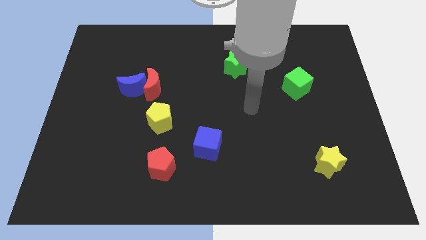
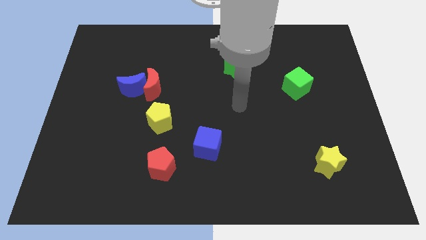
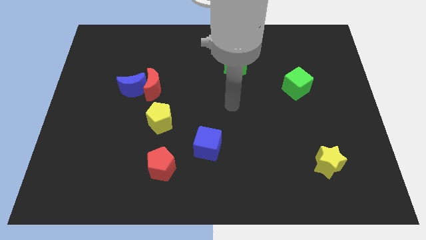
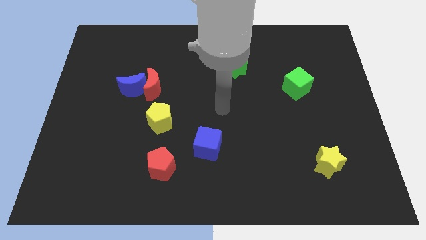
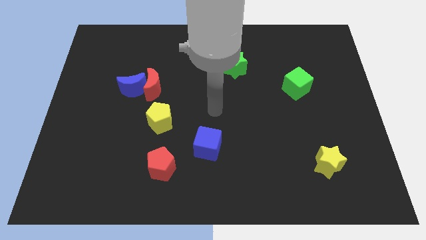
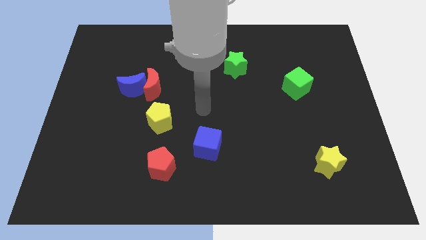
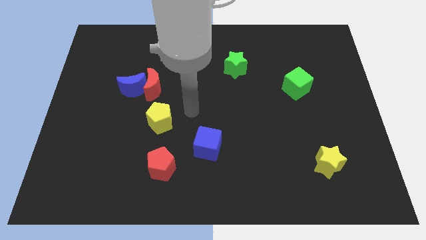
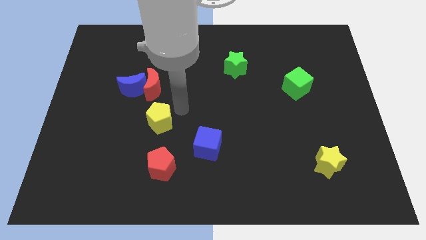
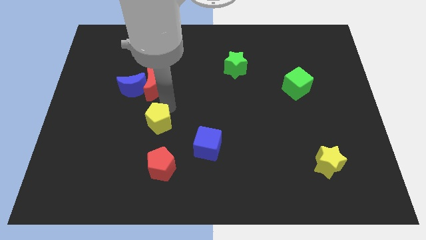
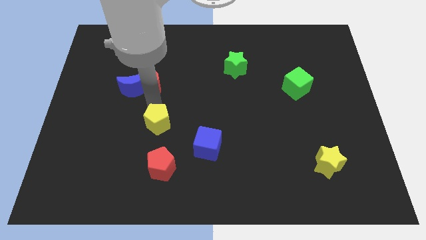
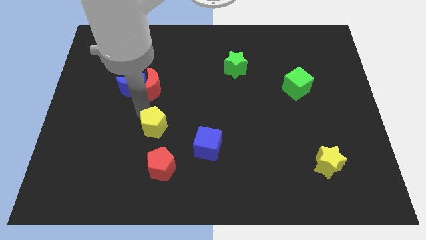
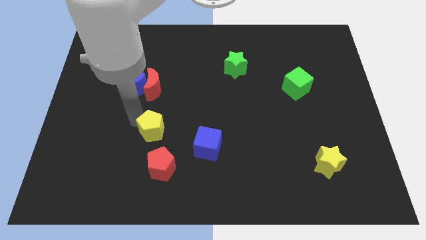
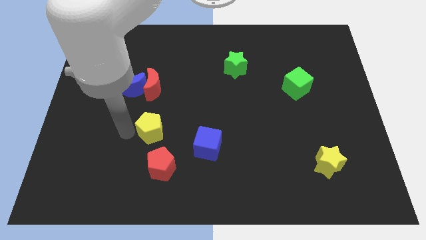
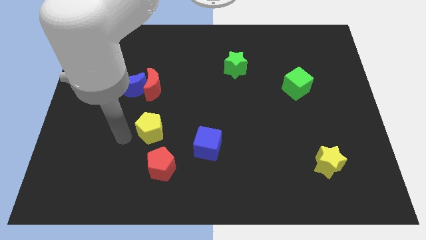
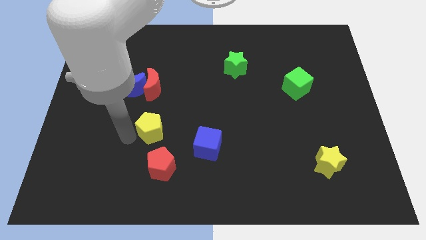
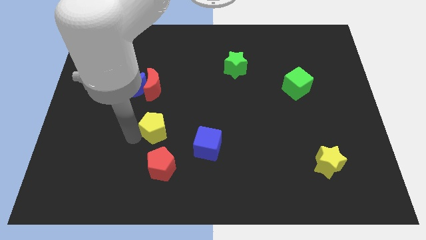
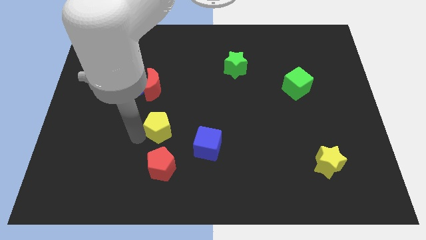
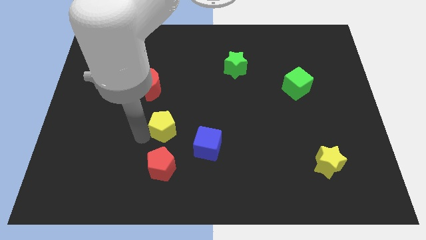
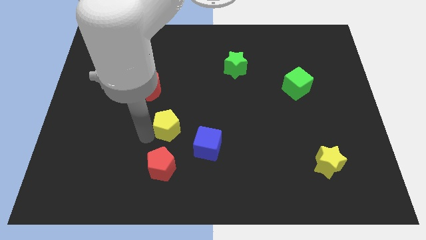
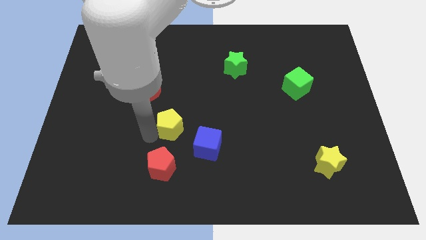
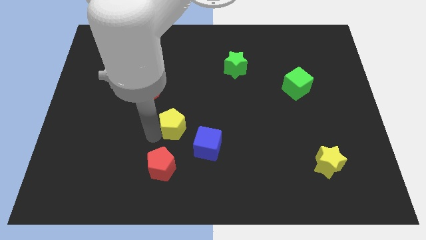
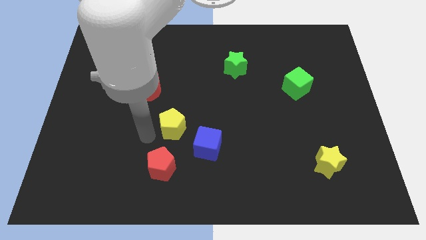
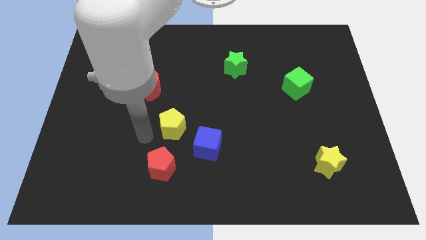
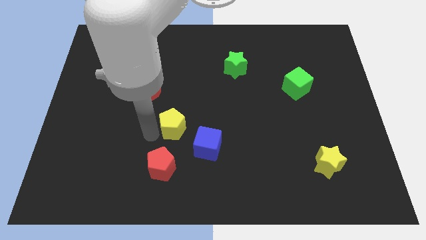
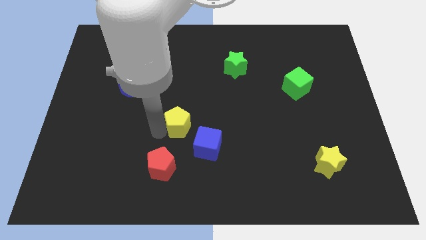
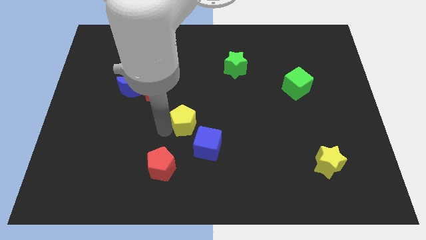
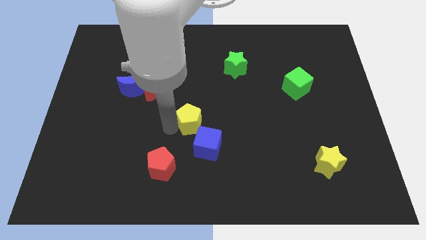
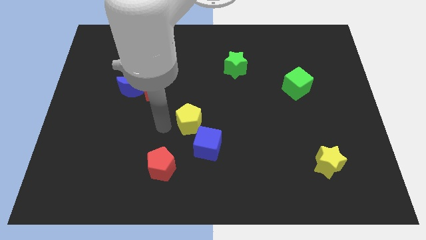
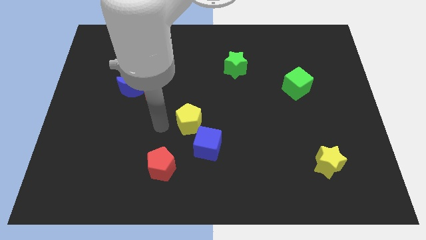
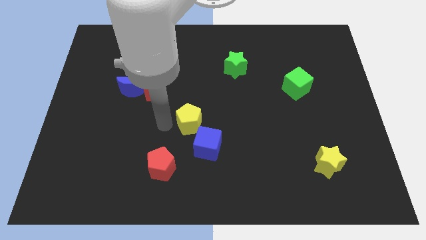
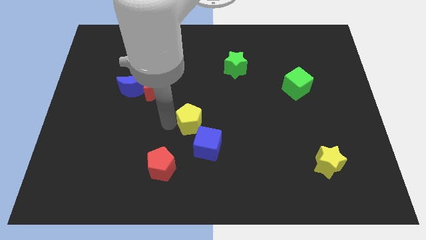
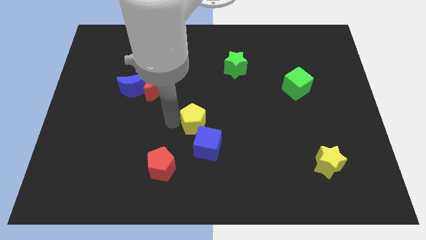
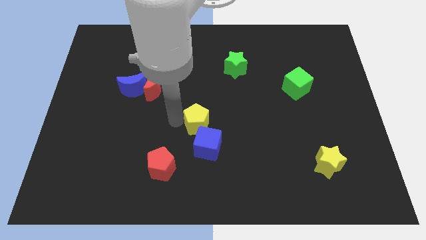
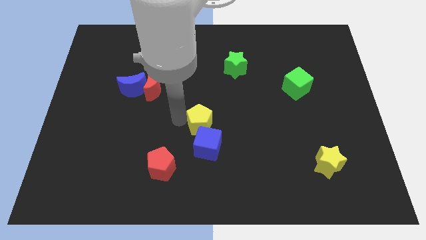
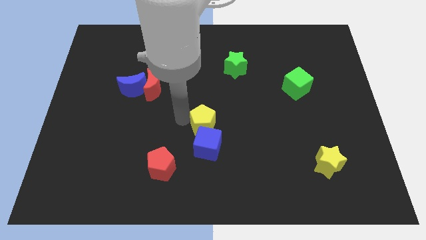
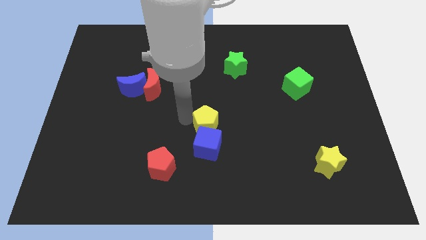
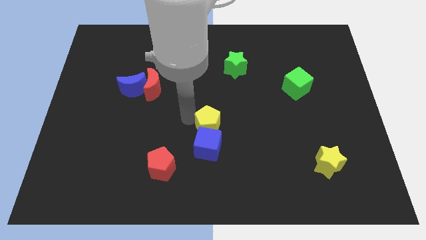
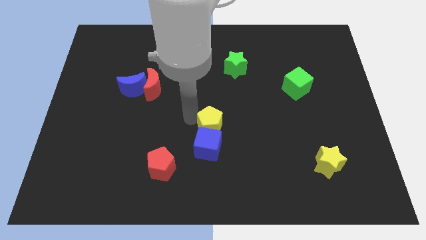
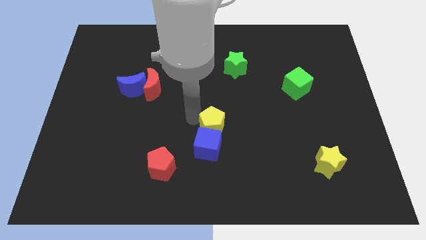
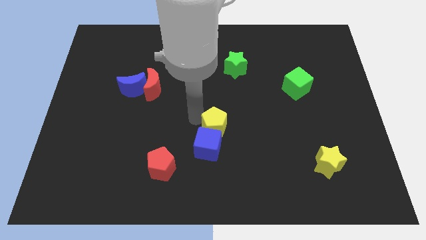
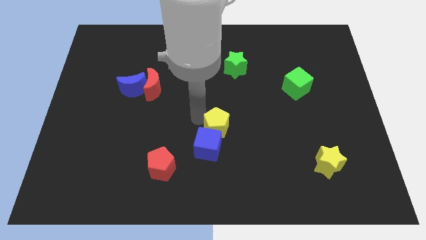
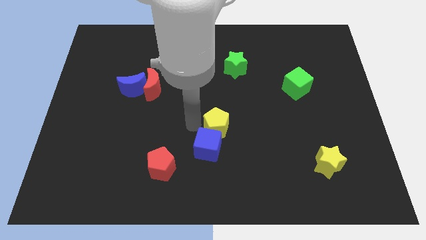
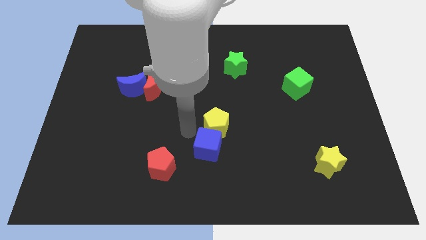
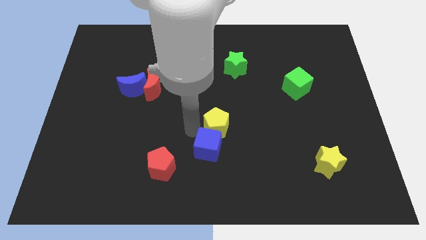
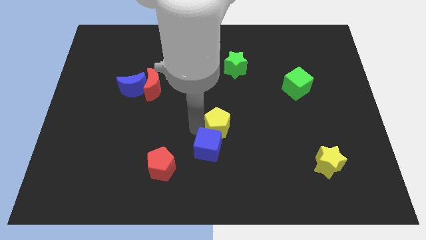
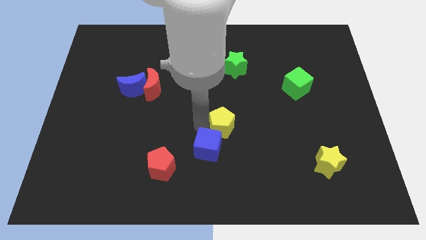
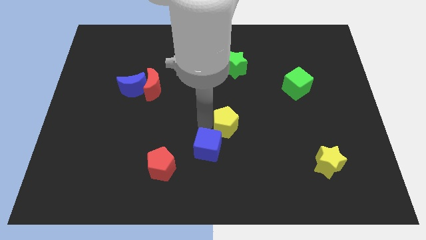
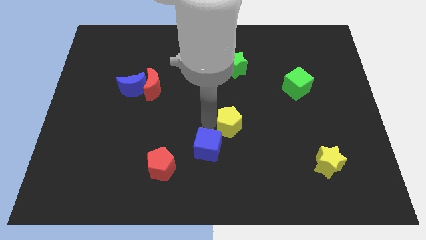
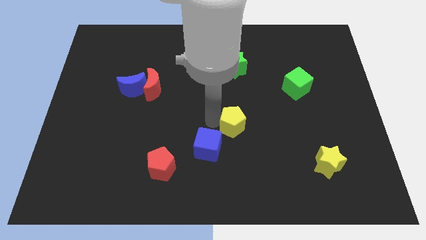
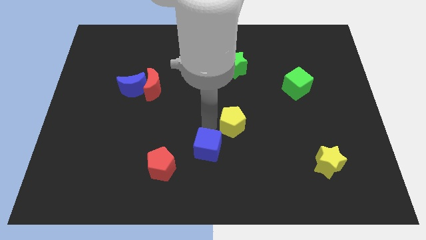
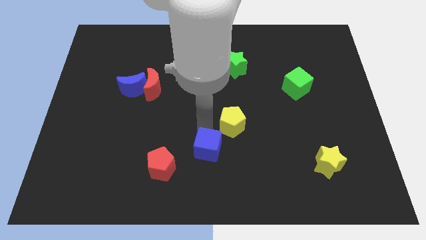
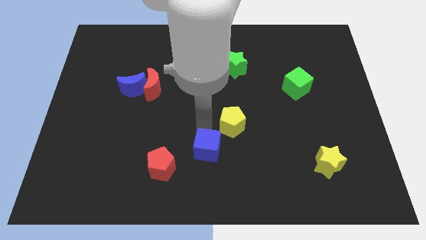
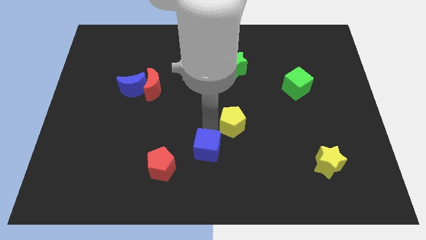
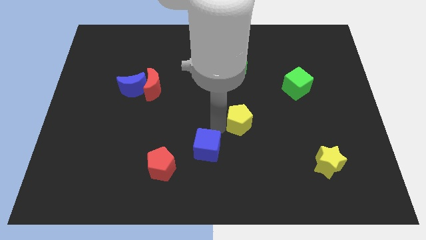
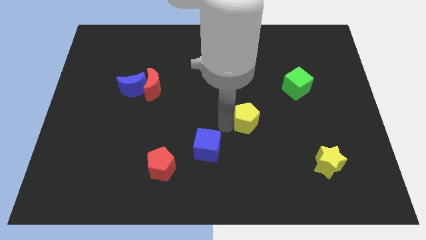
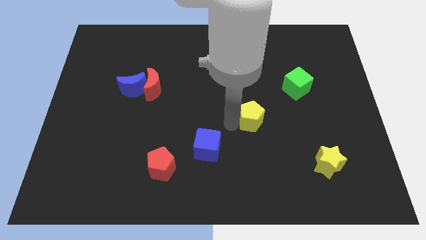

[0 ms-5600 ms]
push the yellow pentagon right

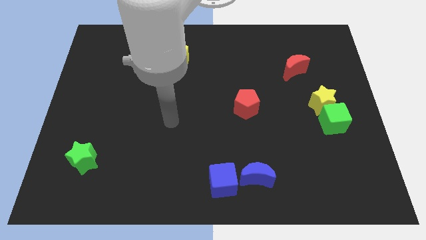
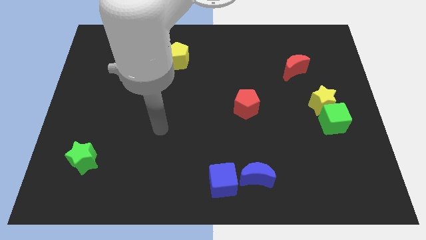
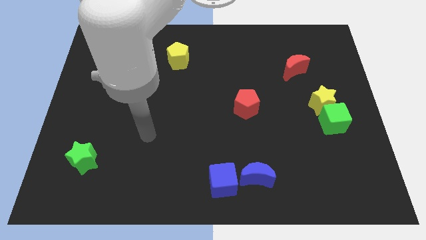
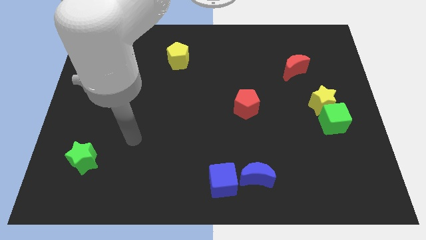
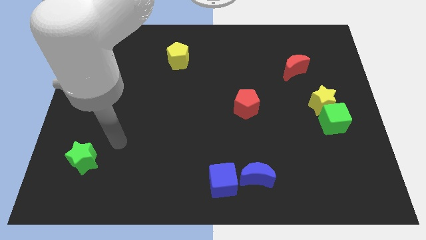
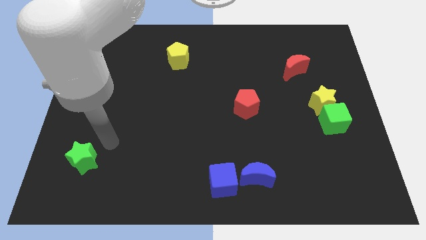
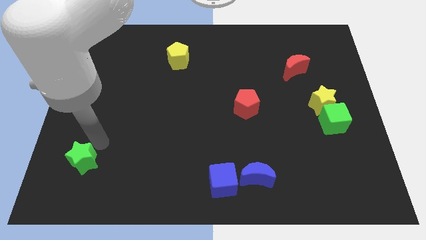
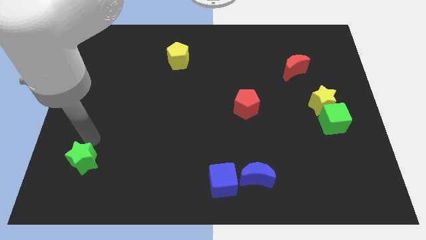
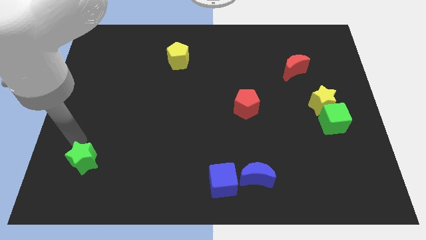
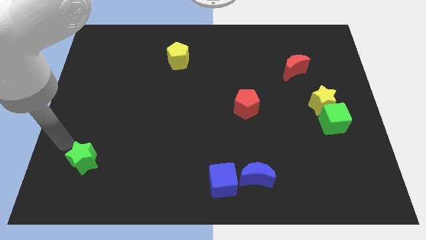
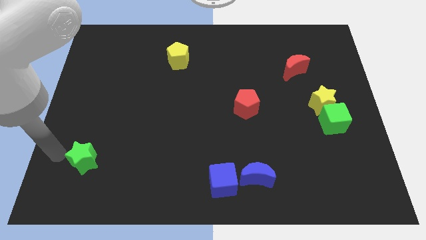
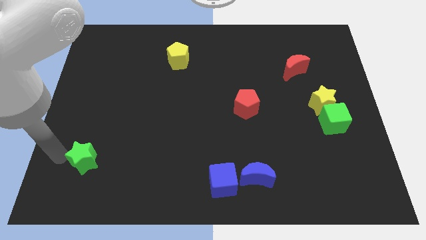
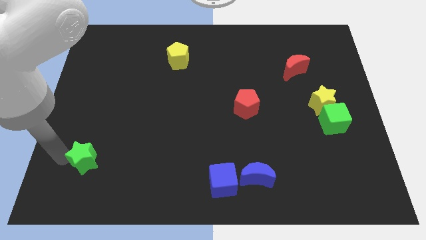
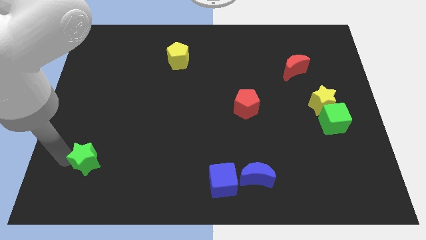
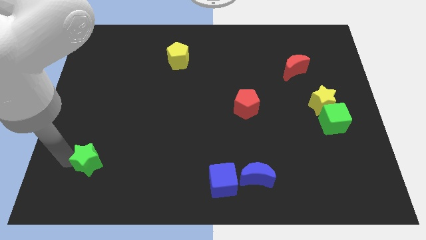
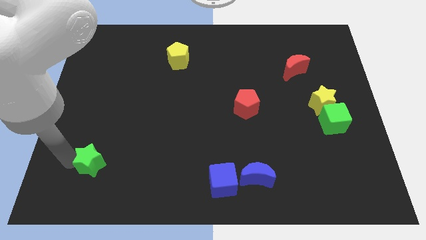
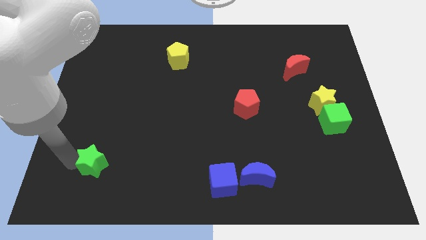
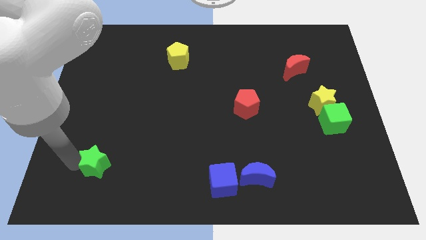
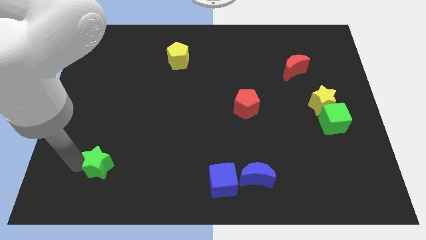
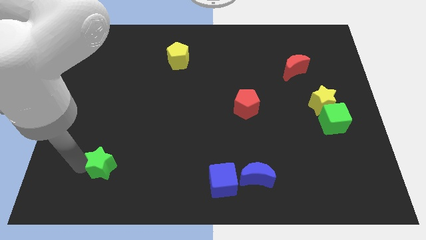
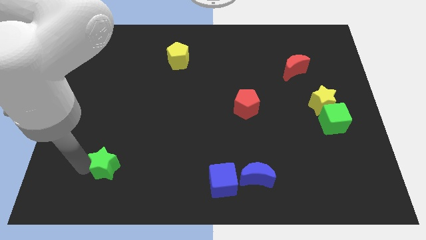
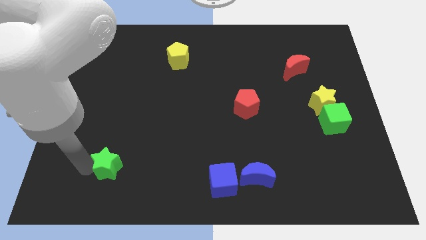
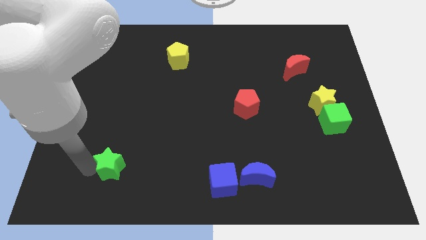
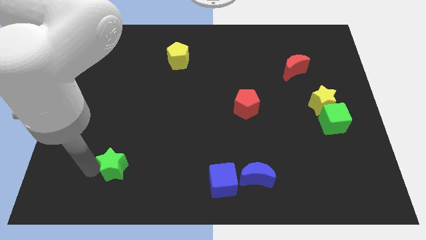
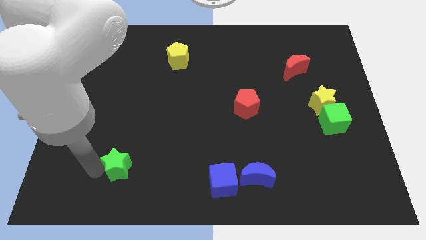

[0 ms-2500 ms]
push the green star right somewhat

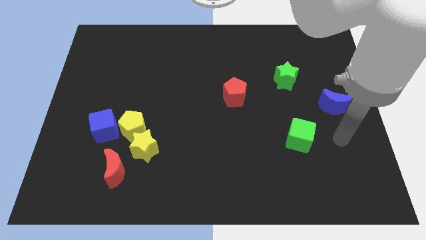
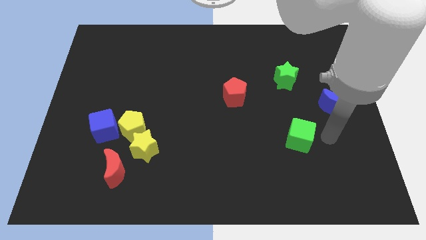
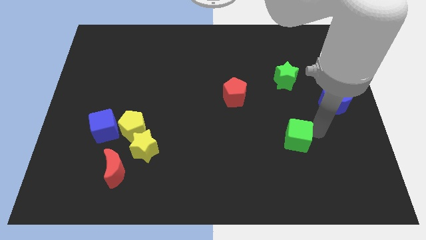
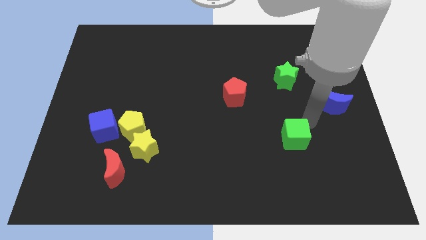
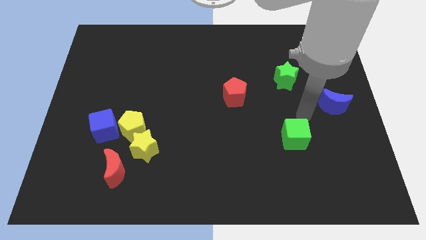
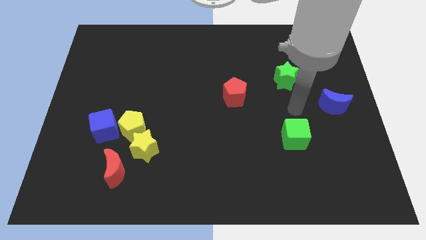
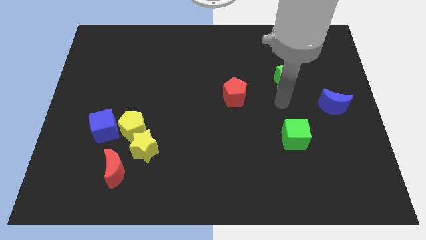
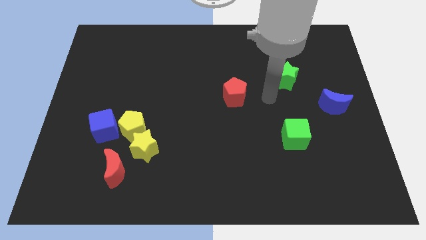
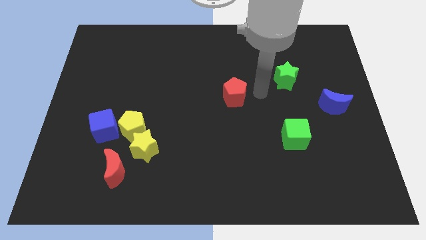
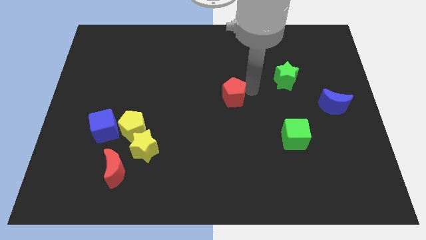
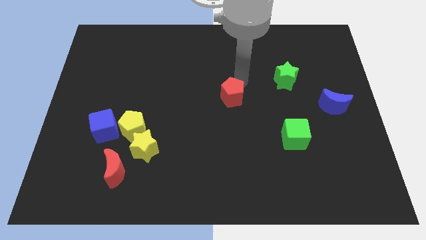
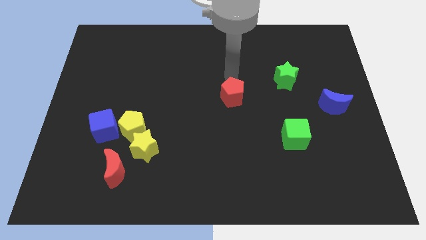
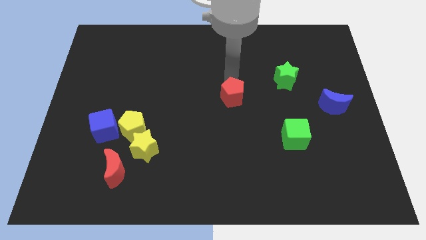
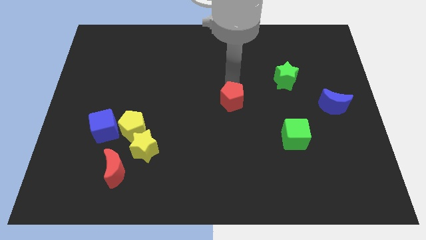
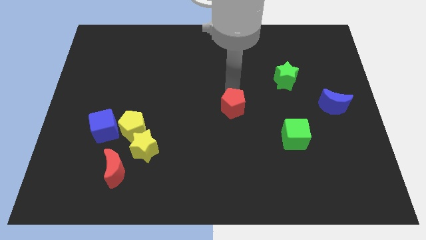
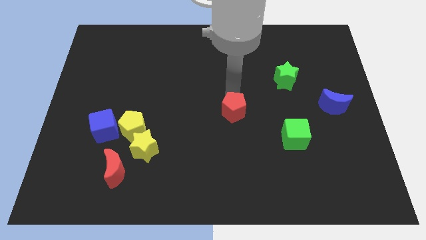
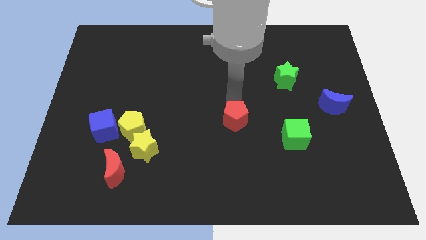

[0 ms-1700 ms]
move the red pentagon somewhat down
